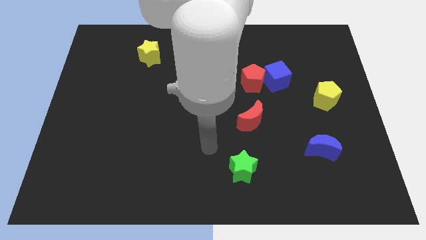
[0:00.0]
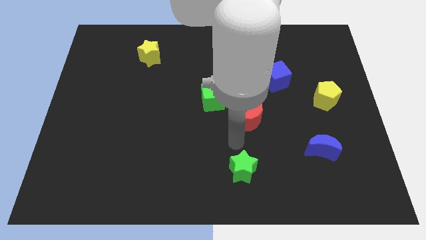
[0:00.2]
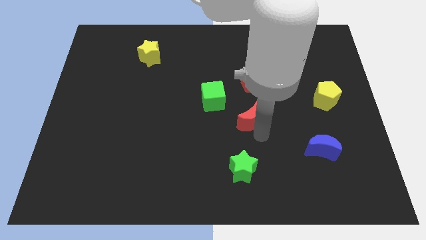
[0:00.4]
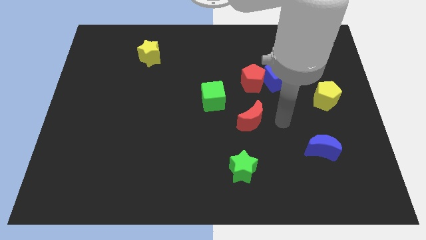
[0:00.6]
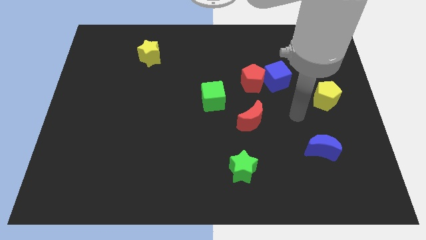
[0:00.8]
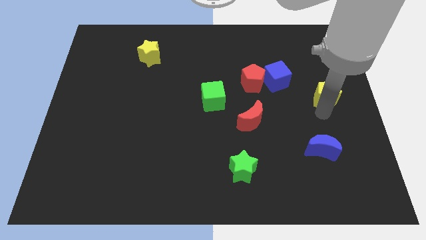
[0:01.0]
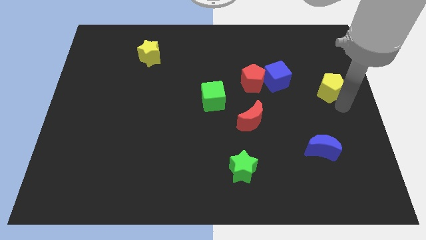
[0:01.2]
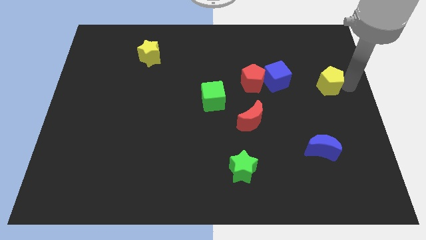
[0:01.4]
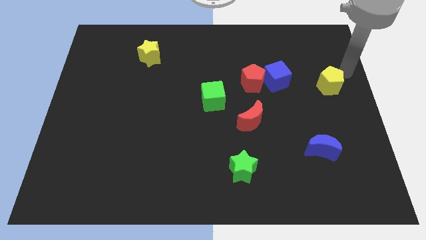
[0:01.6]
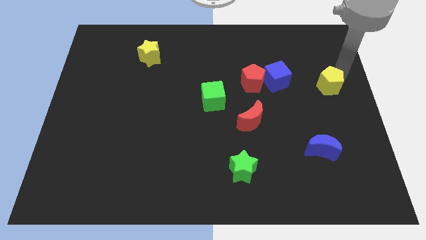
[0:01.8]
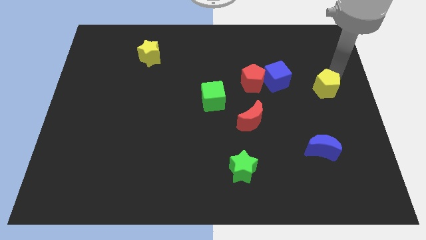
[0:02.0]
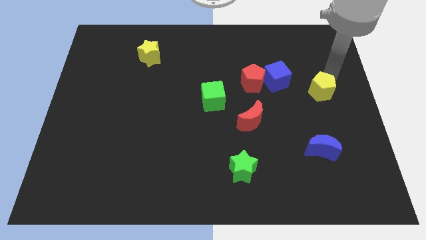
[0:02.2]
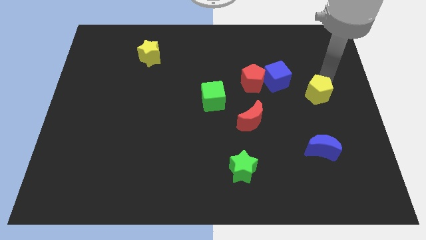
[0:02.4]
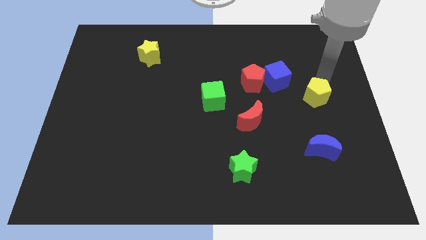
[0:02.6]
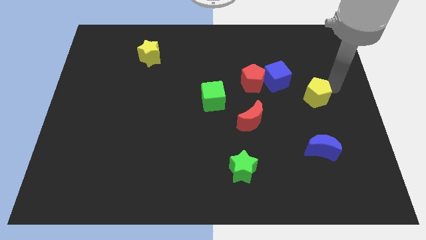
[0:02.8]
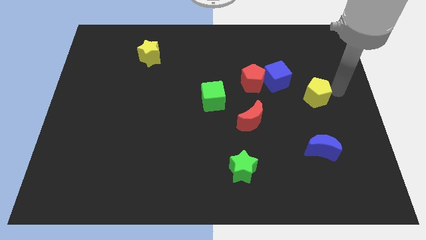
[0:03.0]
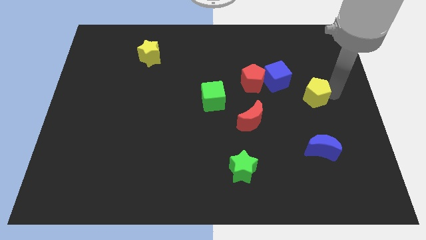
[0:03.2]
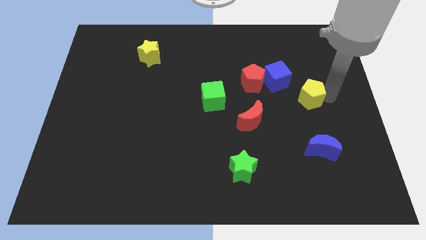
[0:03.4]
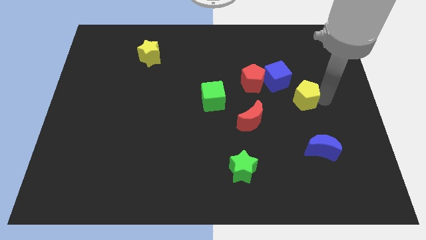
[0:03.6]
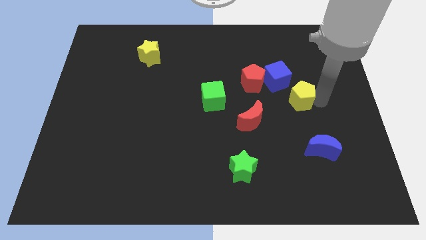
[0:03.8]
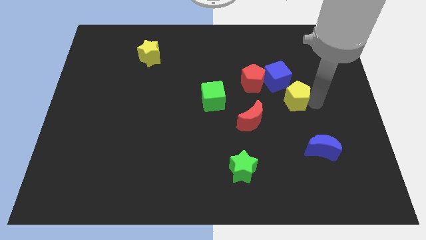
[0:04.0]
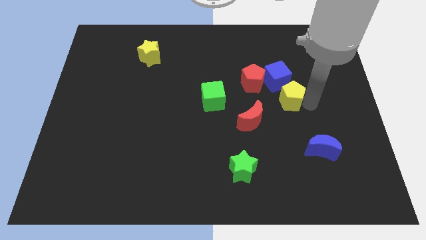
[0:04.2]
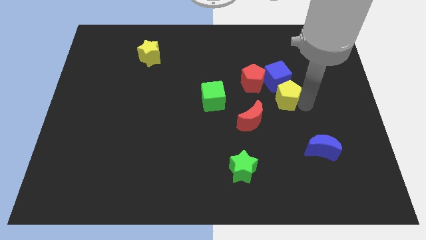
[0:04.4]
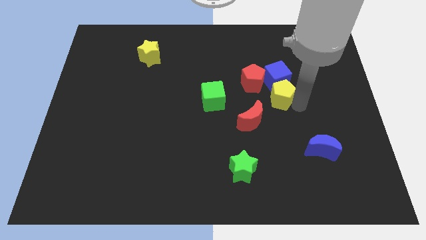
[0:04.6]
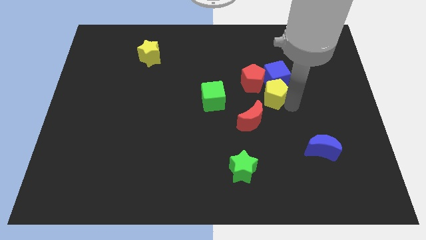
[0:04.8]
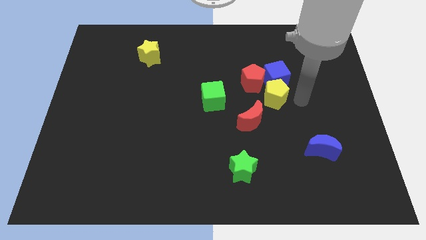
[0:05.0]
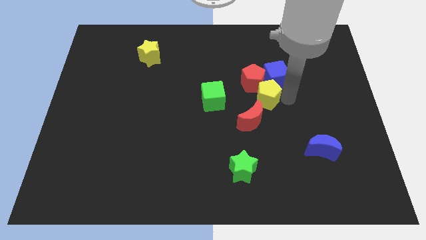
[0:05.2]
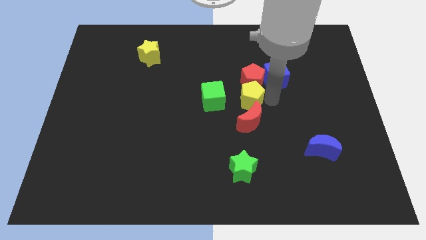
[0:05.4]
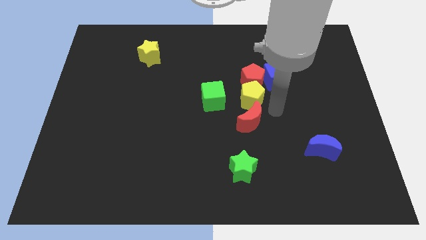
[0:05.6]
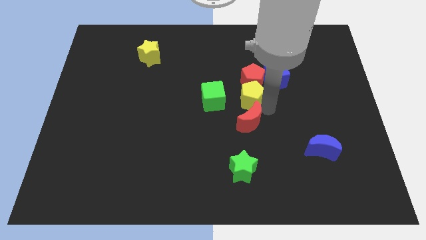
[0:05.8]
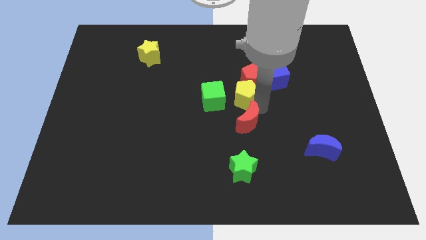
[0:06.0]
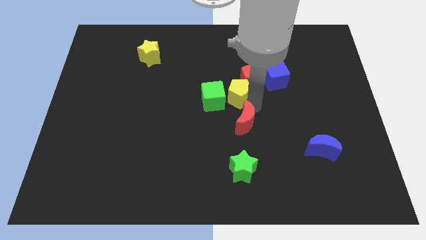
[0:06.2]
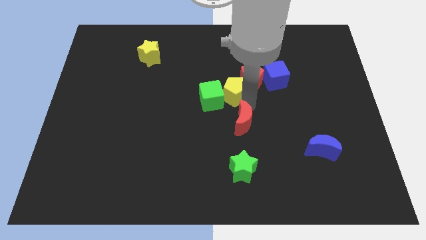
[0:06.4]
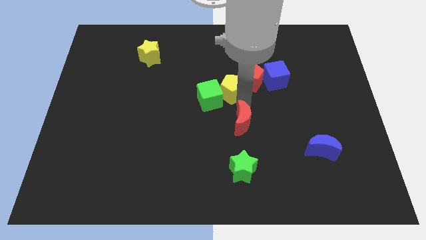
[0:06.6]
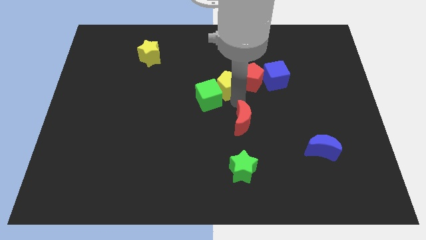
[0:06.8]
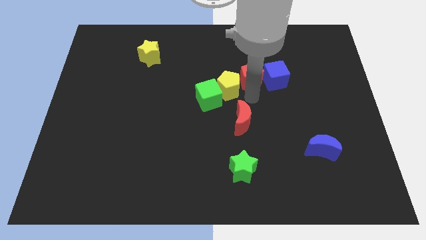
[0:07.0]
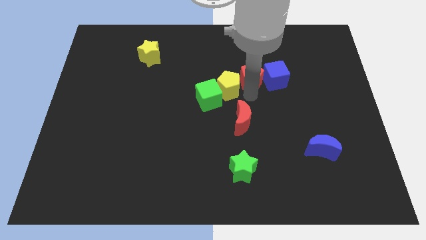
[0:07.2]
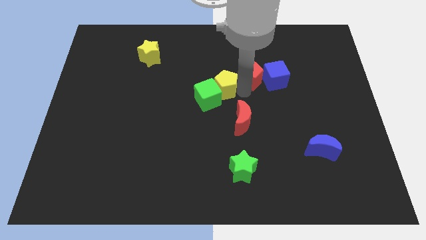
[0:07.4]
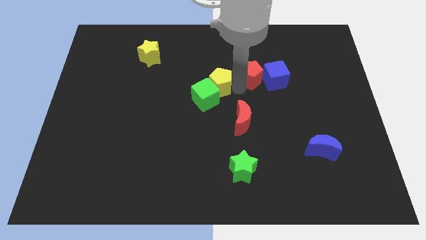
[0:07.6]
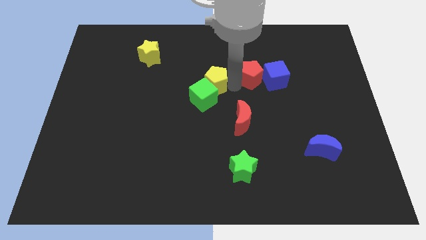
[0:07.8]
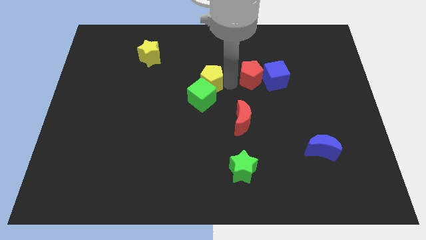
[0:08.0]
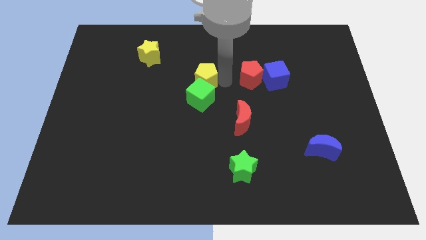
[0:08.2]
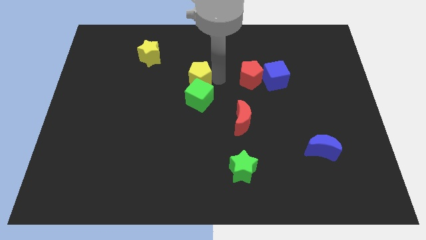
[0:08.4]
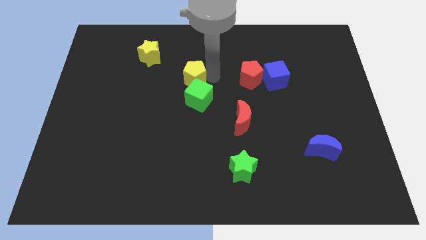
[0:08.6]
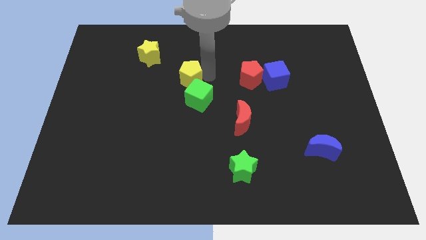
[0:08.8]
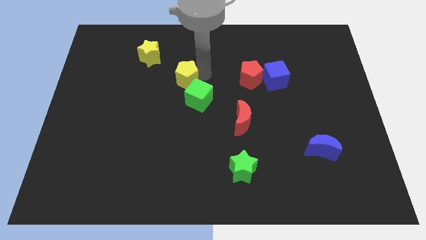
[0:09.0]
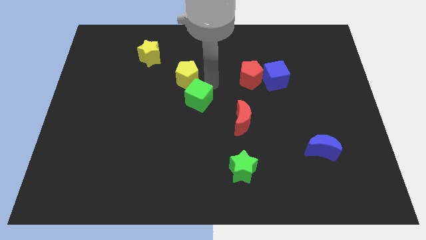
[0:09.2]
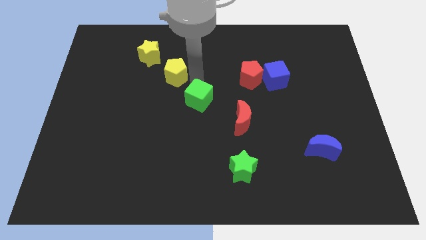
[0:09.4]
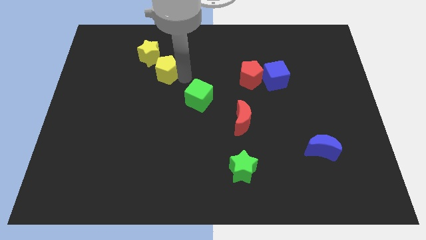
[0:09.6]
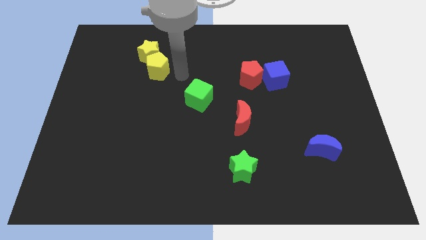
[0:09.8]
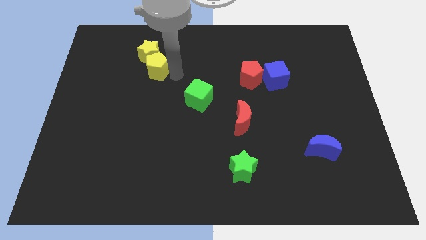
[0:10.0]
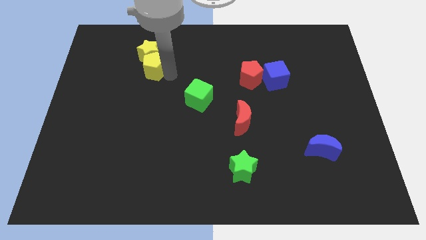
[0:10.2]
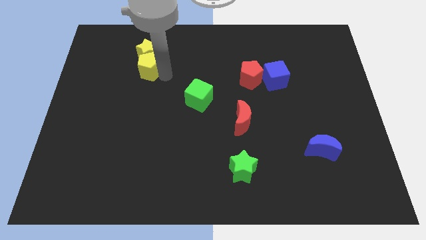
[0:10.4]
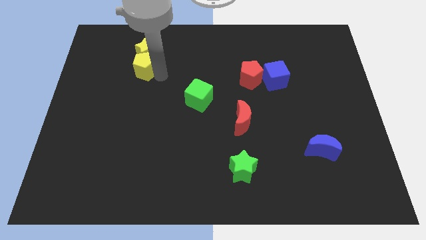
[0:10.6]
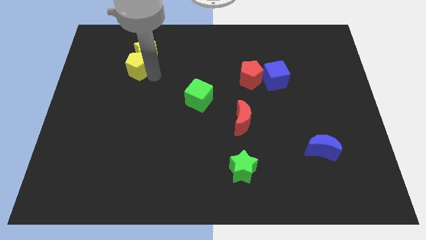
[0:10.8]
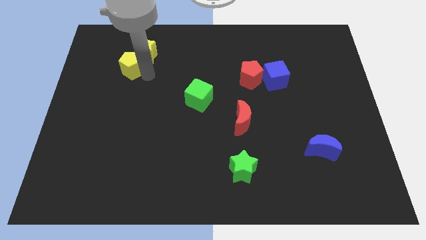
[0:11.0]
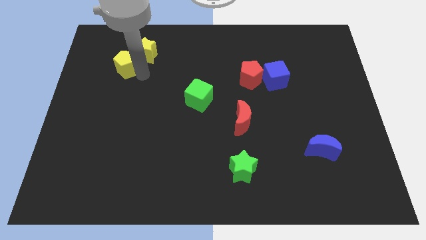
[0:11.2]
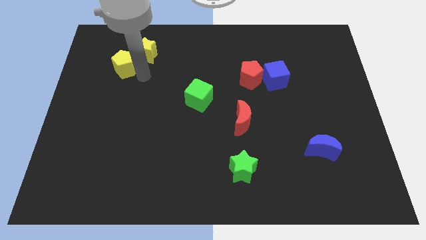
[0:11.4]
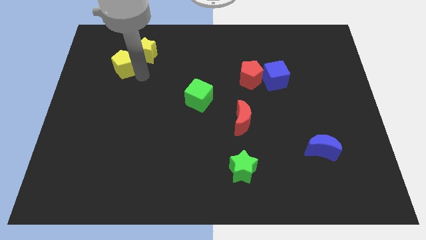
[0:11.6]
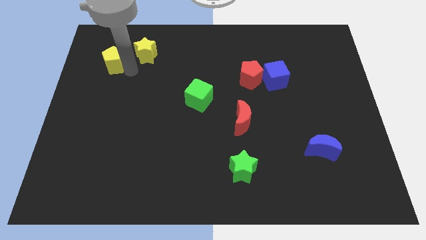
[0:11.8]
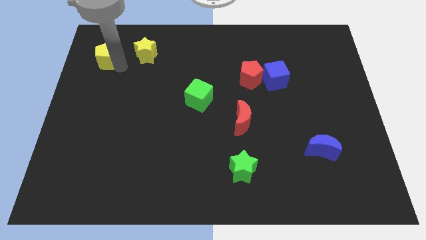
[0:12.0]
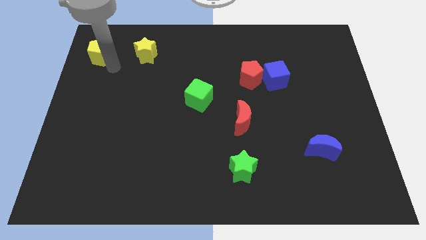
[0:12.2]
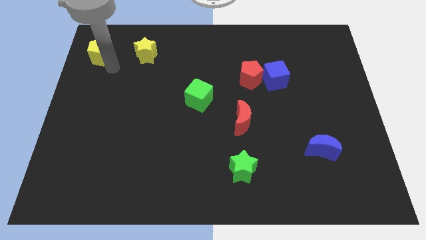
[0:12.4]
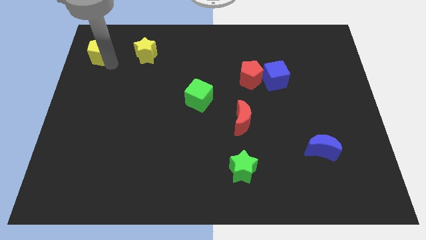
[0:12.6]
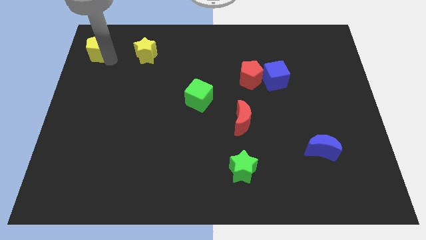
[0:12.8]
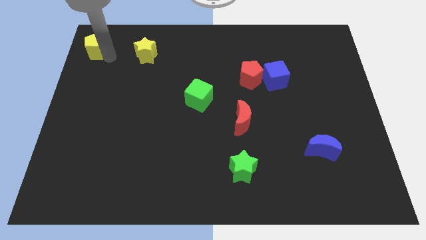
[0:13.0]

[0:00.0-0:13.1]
move the yellow pentagon to the top left corner
